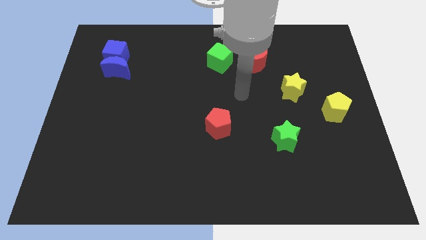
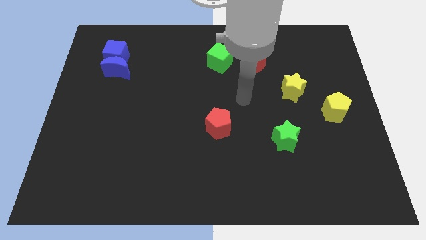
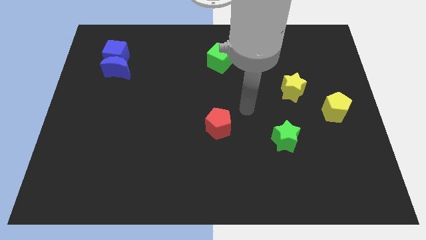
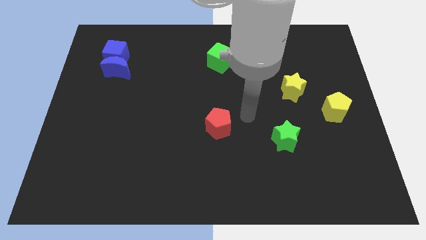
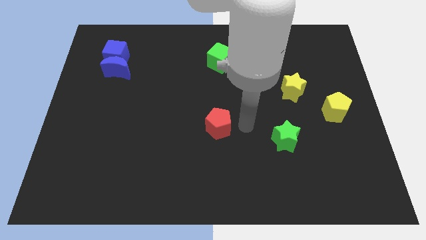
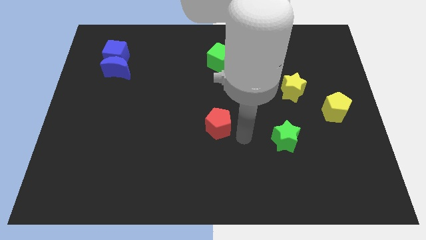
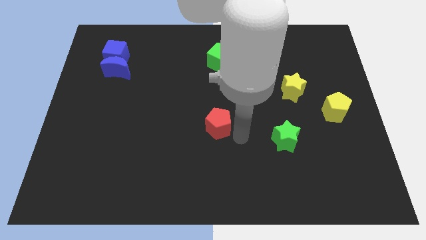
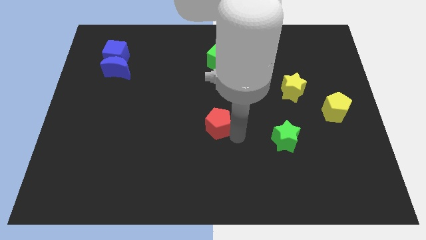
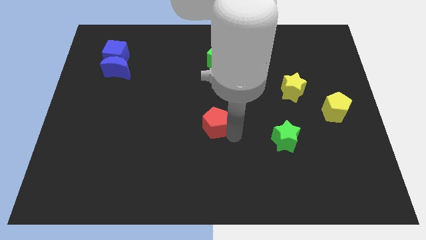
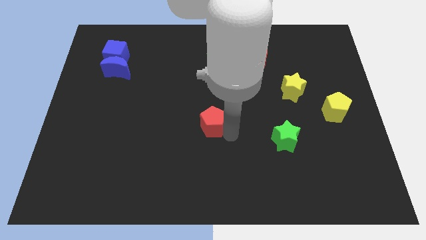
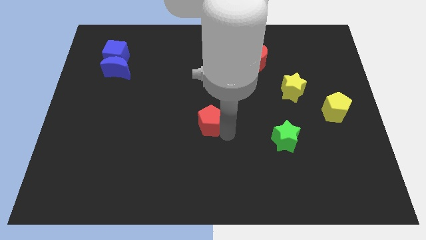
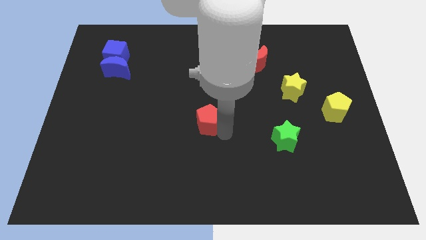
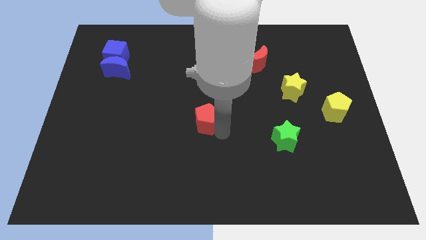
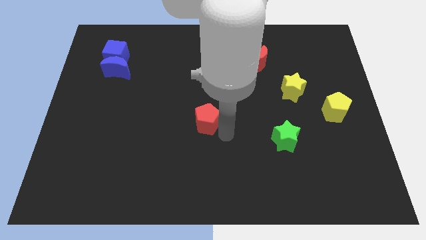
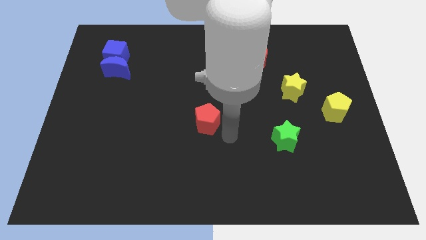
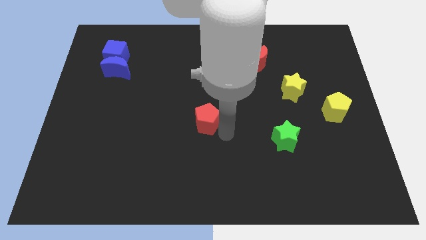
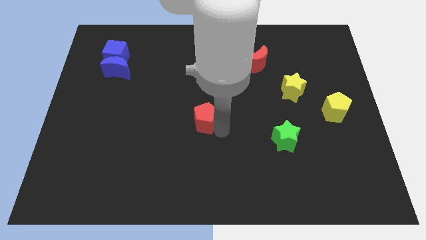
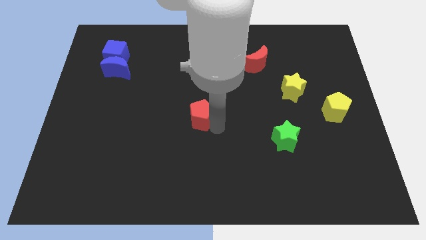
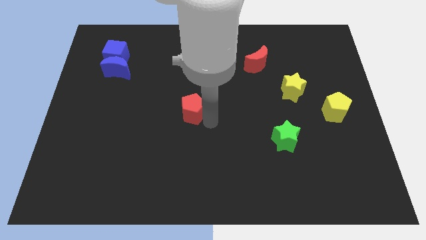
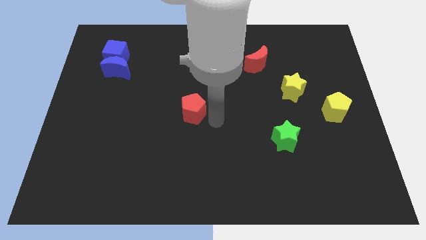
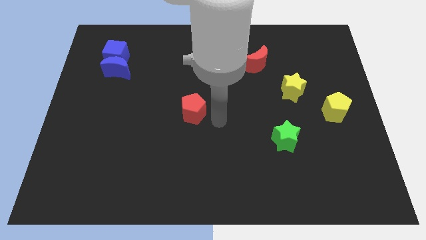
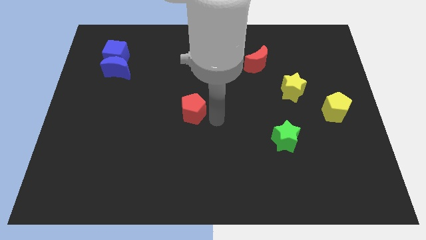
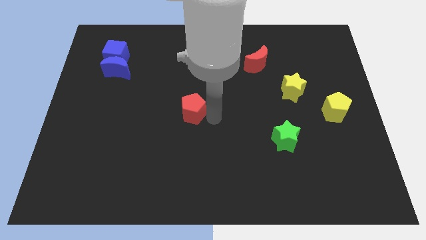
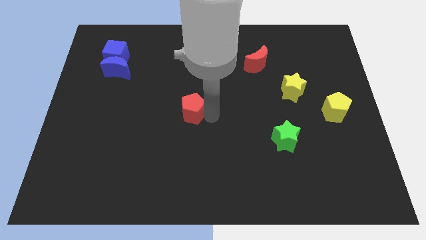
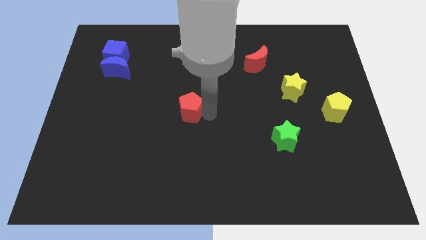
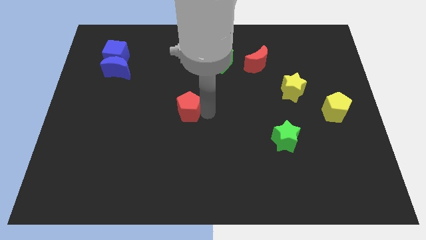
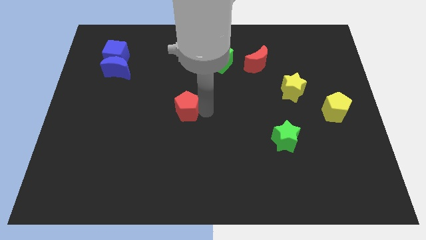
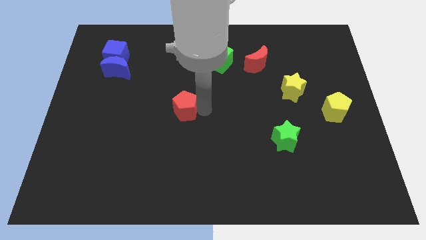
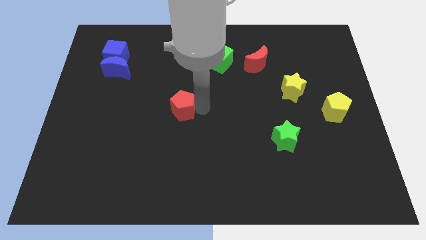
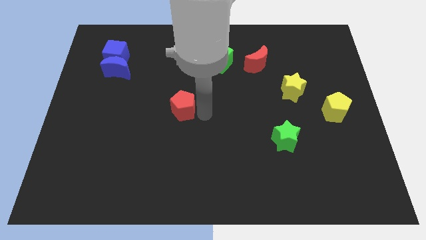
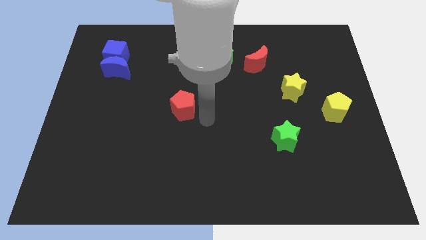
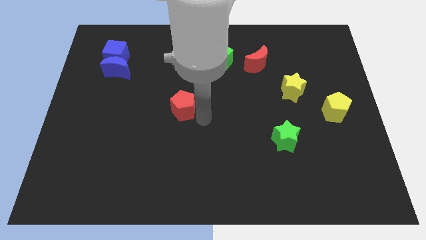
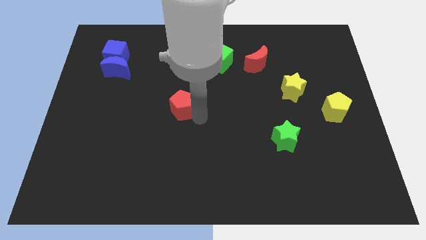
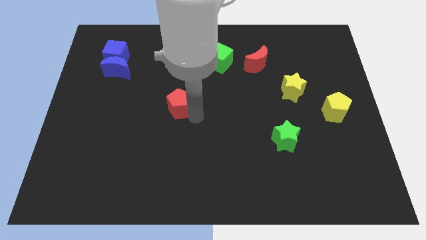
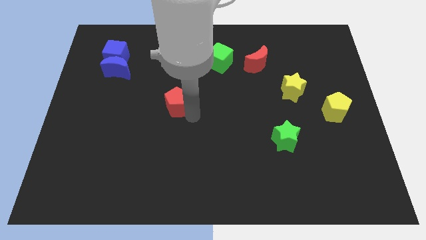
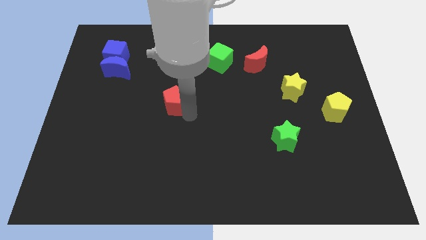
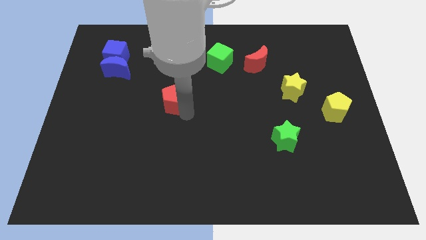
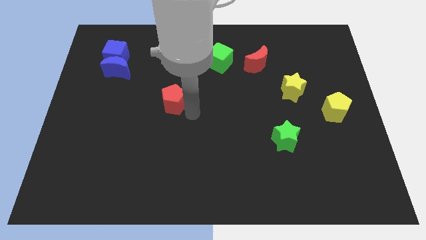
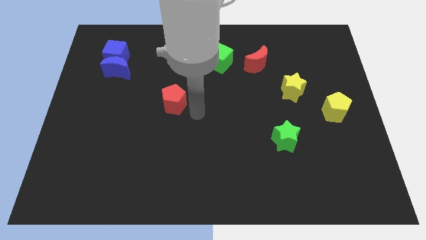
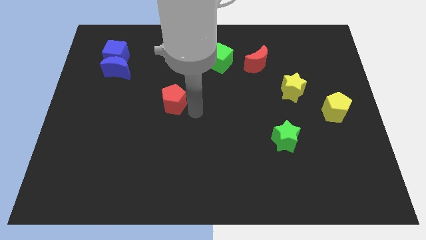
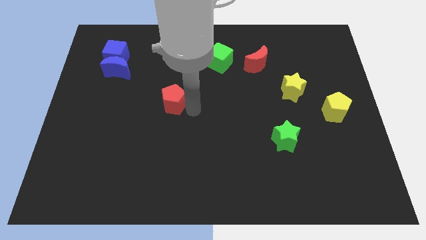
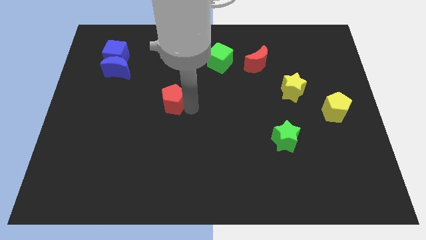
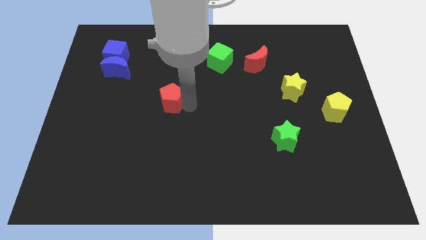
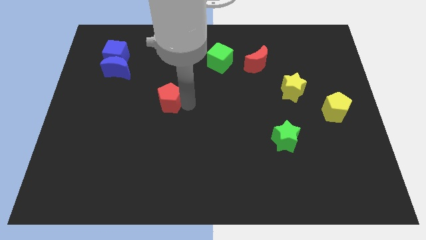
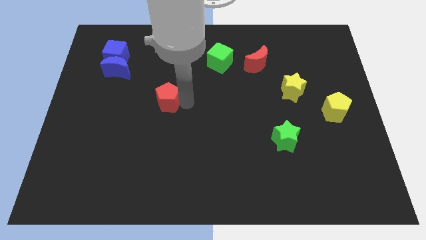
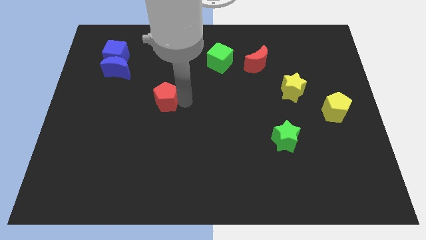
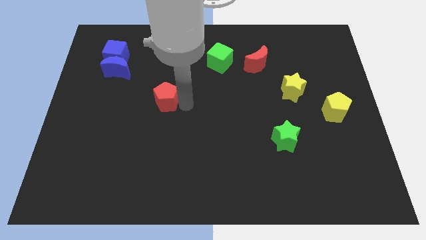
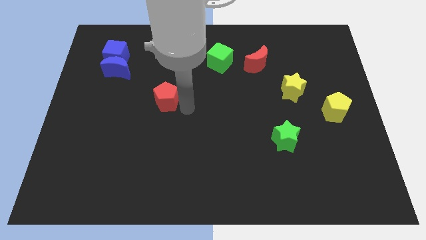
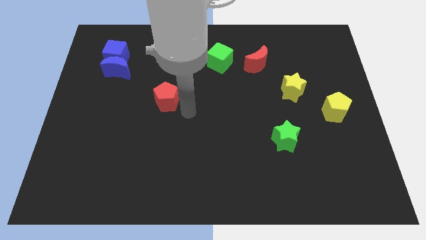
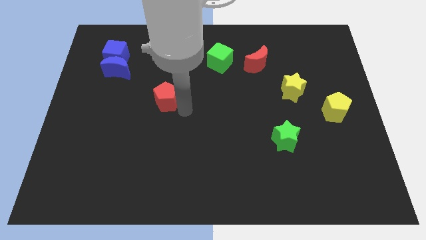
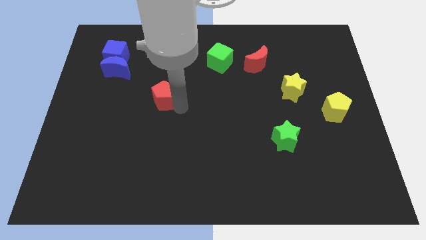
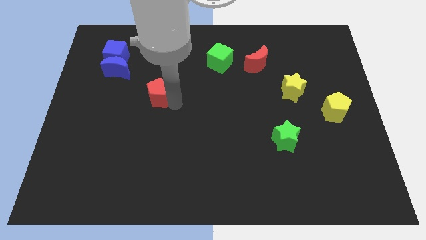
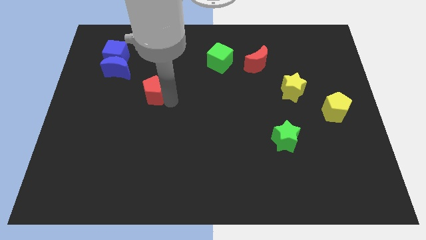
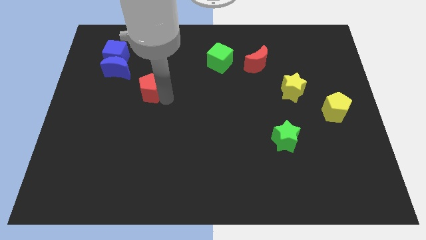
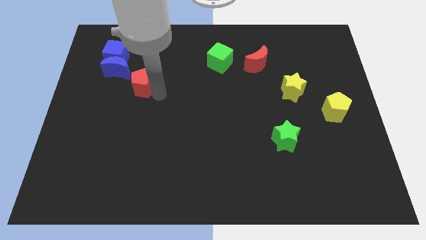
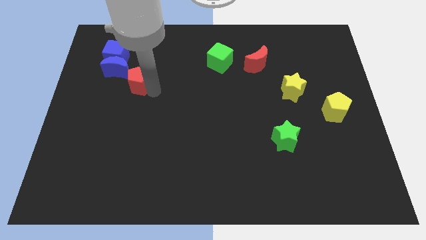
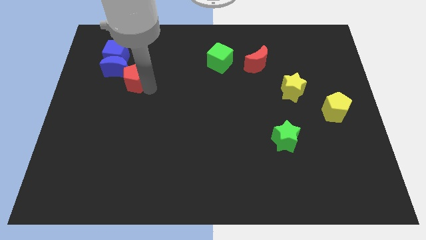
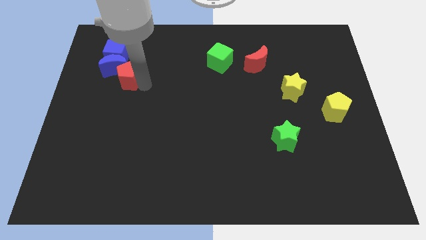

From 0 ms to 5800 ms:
put the red pentagon to the blue moon

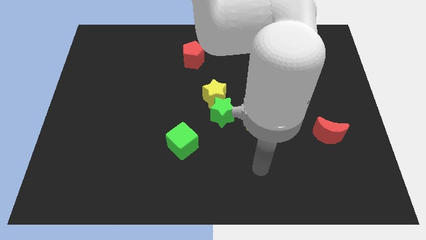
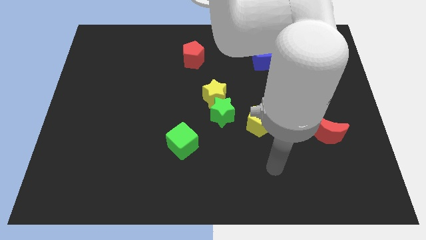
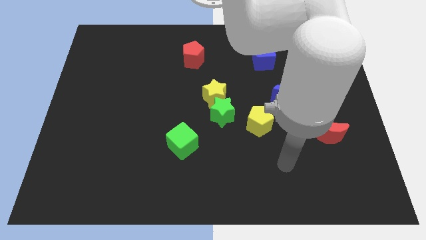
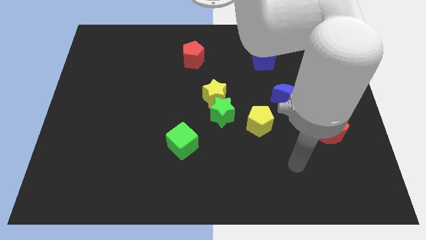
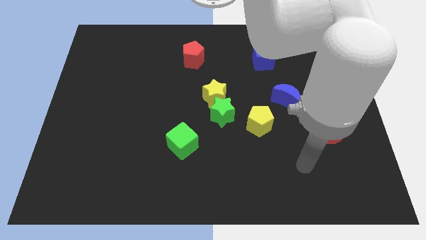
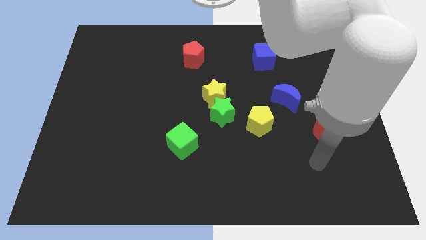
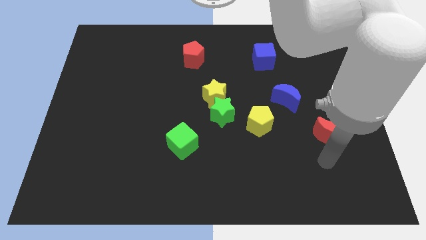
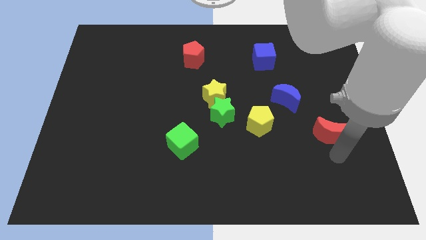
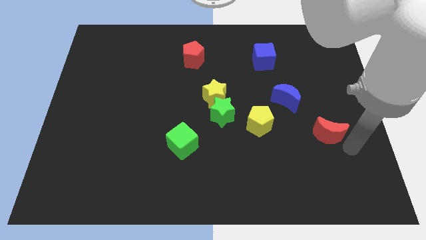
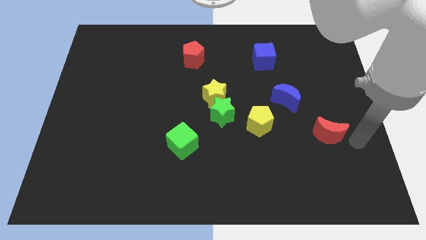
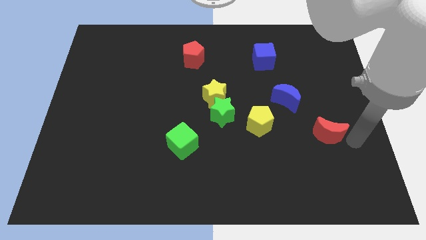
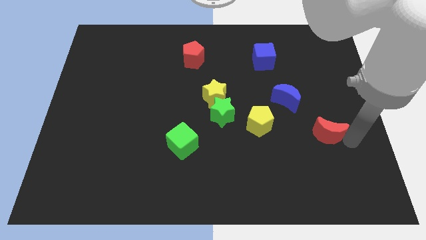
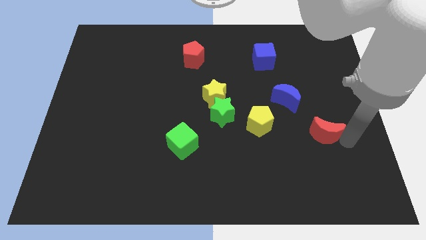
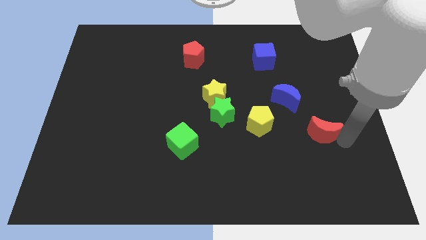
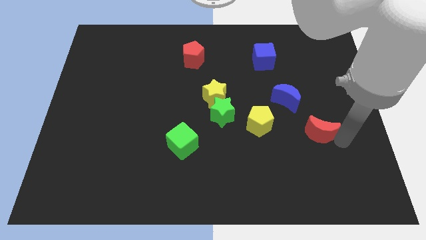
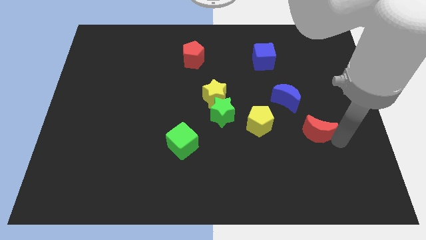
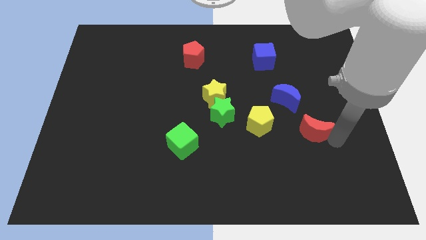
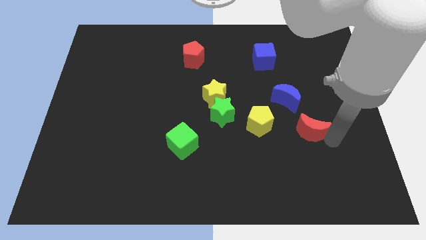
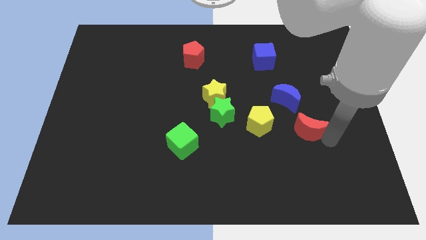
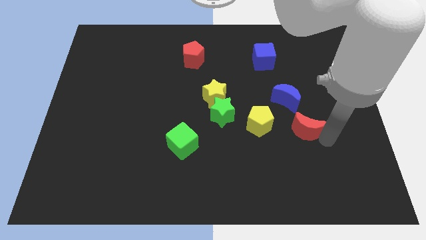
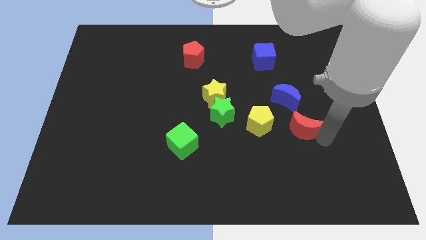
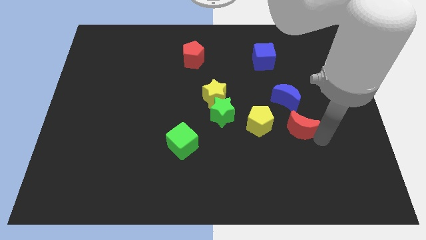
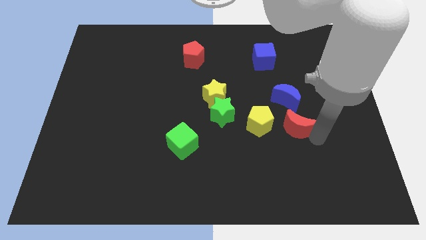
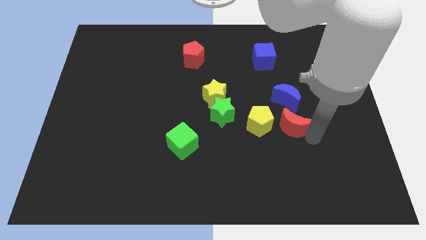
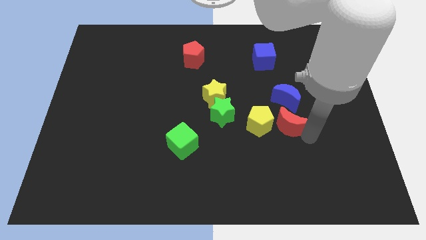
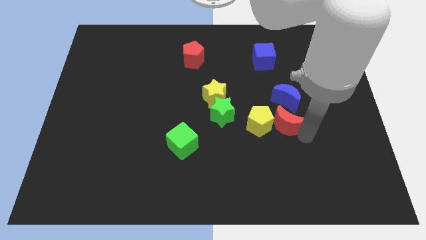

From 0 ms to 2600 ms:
slide the red moon towards the yellow pentagon
